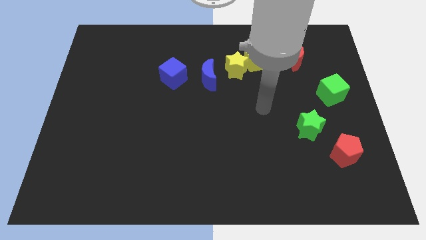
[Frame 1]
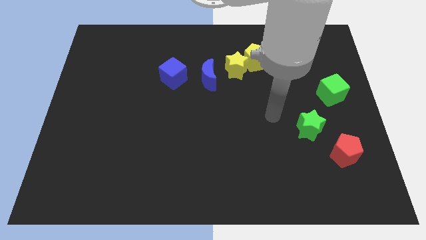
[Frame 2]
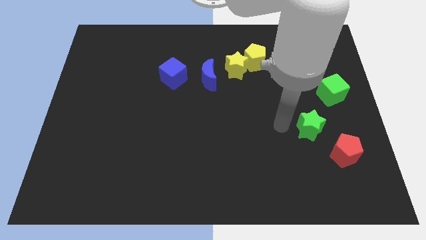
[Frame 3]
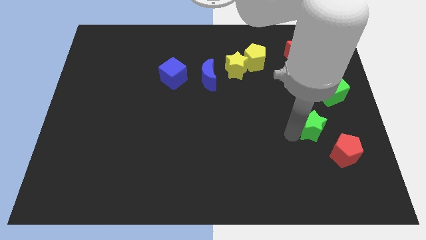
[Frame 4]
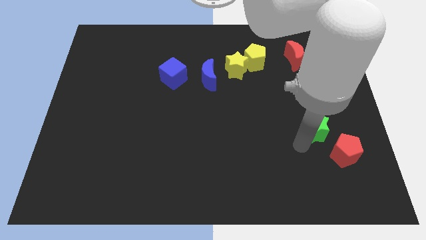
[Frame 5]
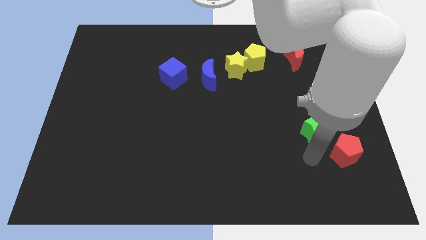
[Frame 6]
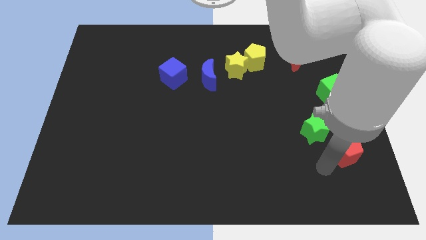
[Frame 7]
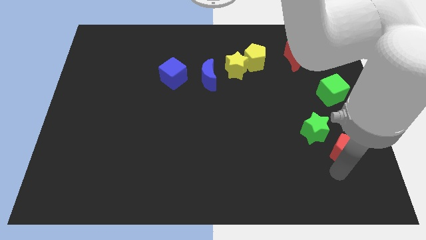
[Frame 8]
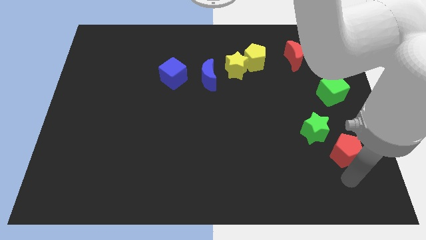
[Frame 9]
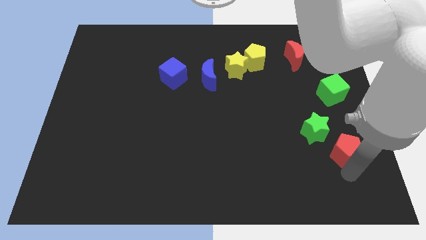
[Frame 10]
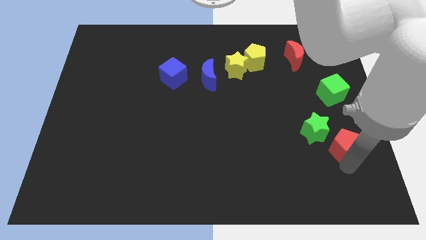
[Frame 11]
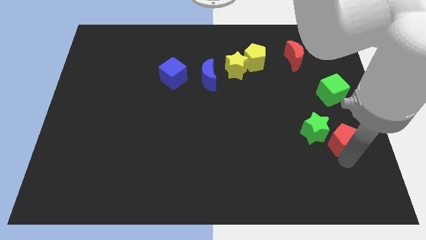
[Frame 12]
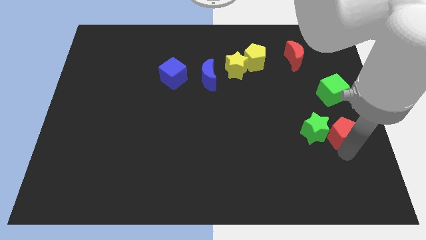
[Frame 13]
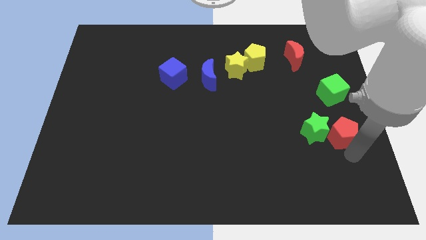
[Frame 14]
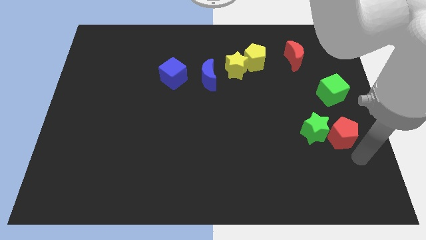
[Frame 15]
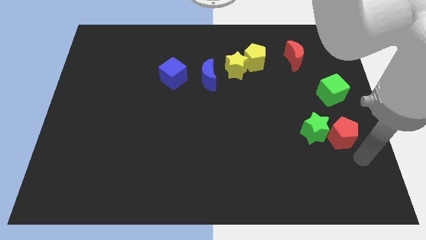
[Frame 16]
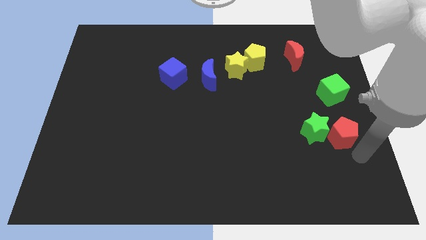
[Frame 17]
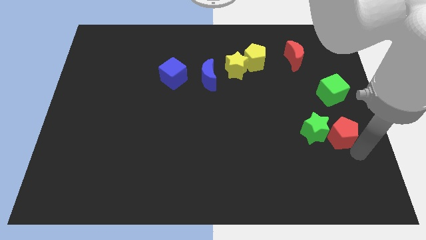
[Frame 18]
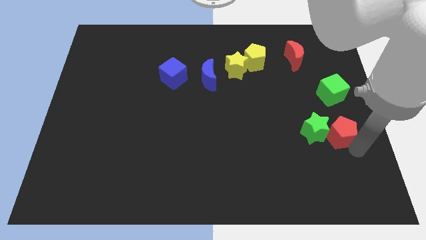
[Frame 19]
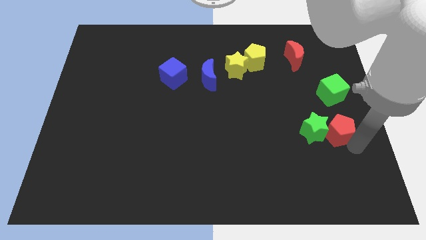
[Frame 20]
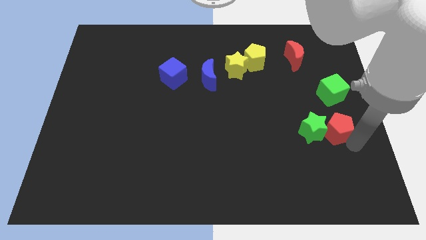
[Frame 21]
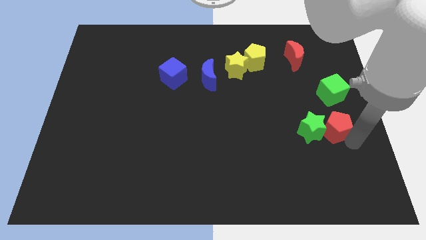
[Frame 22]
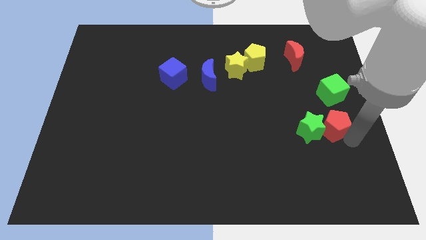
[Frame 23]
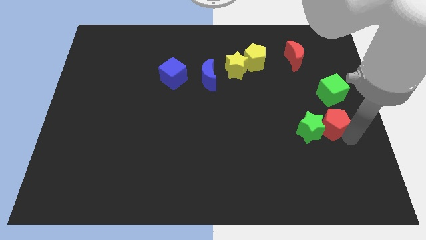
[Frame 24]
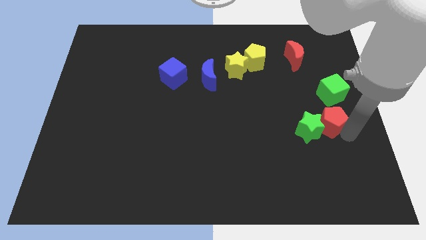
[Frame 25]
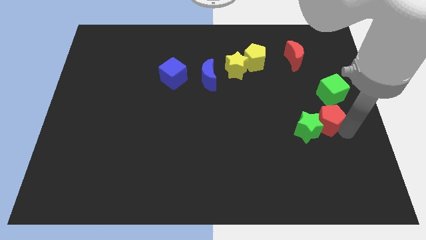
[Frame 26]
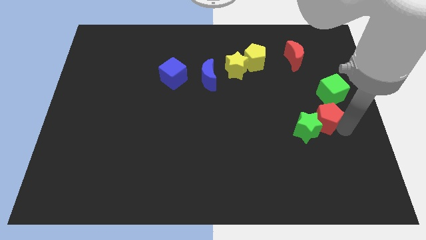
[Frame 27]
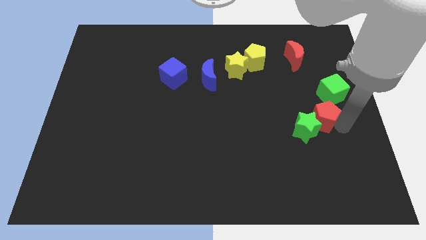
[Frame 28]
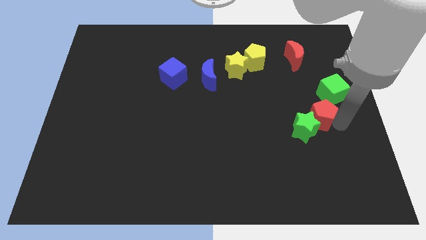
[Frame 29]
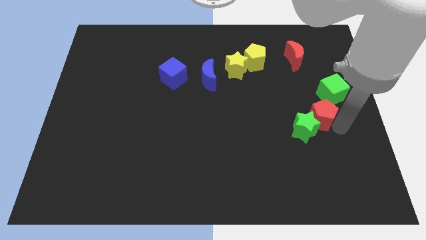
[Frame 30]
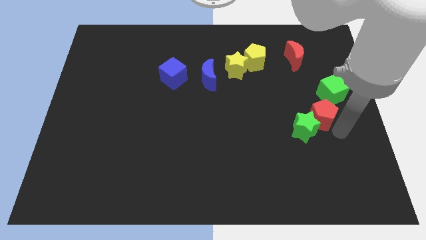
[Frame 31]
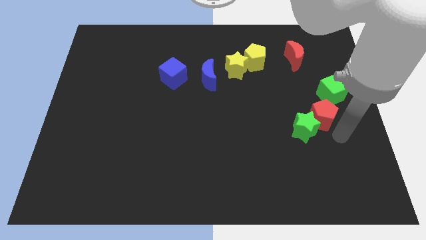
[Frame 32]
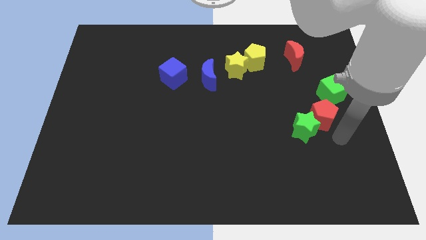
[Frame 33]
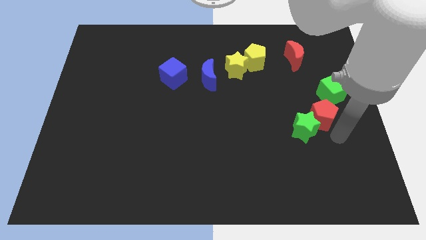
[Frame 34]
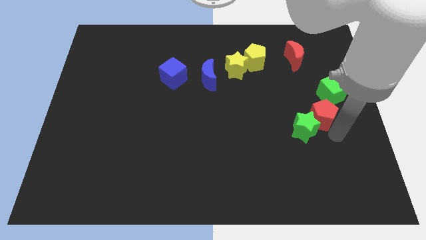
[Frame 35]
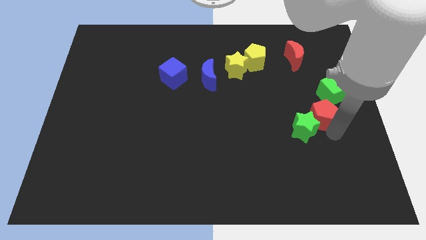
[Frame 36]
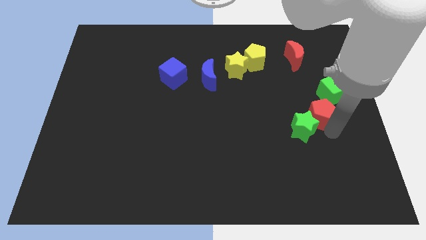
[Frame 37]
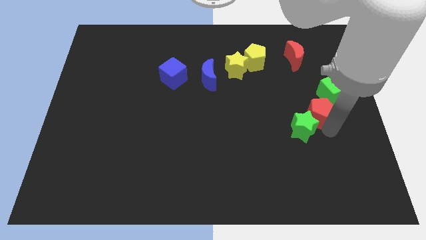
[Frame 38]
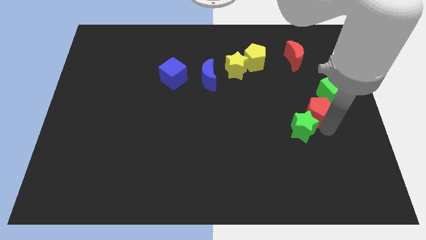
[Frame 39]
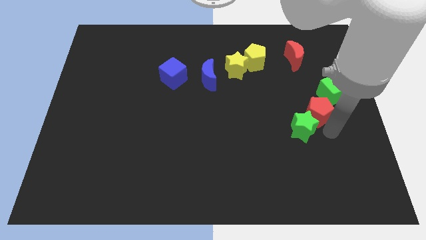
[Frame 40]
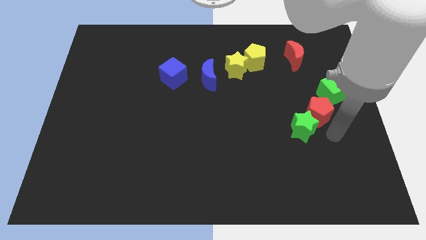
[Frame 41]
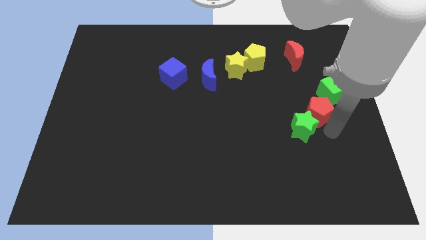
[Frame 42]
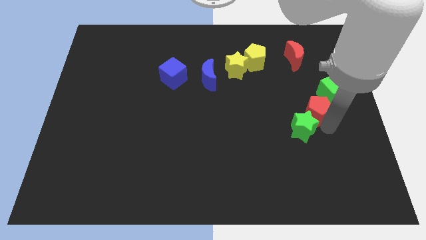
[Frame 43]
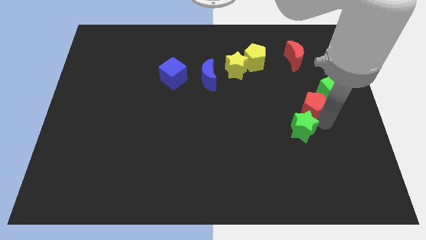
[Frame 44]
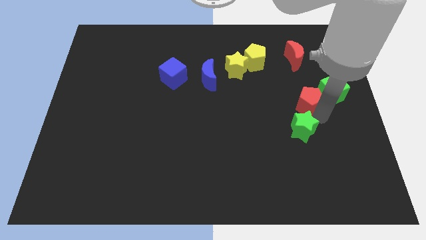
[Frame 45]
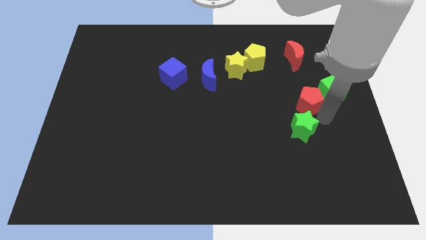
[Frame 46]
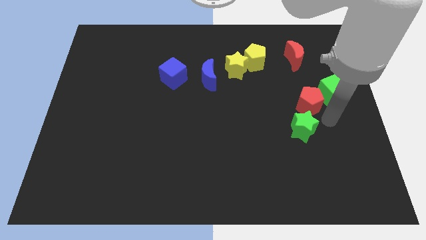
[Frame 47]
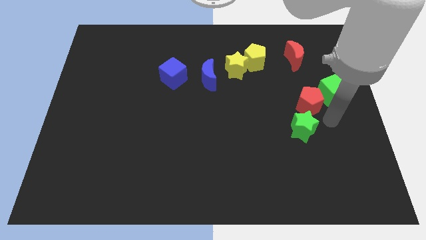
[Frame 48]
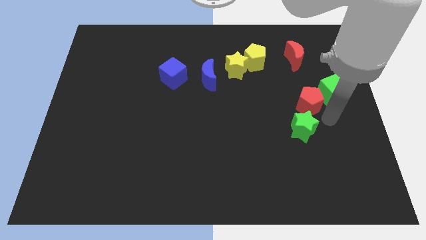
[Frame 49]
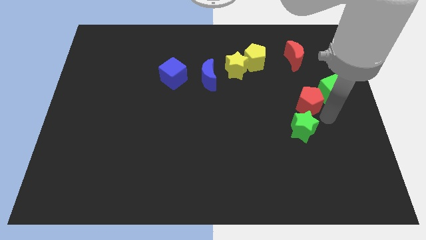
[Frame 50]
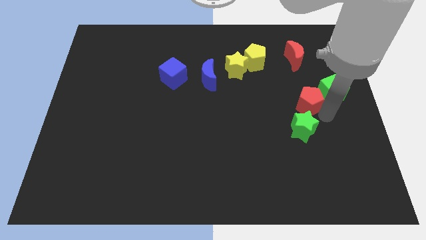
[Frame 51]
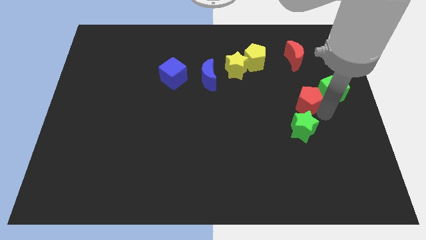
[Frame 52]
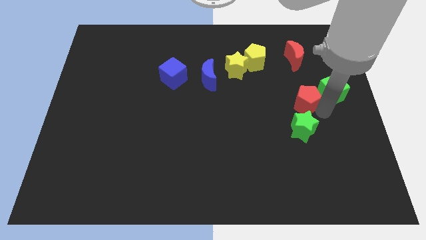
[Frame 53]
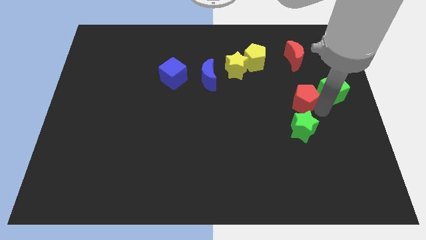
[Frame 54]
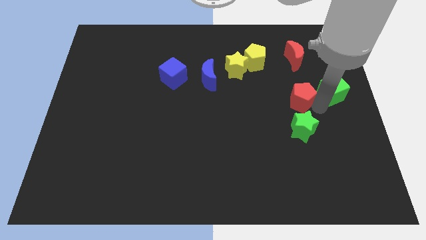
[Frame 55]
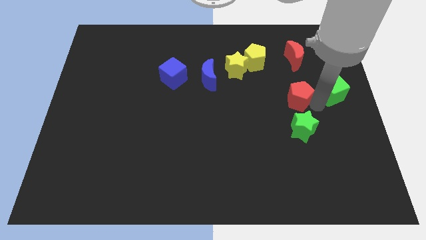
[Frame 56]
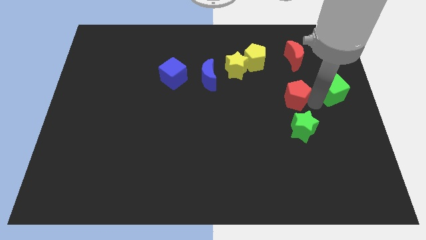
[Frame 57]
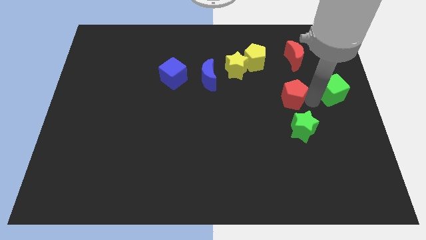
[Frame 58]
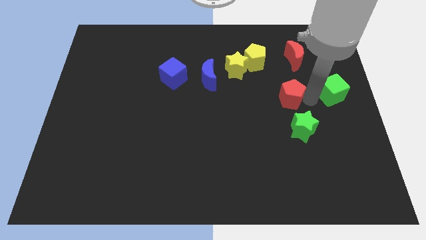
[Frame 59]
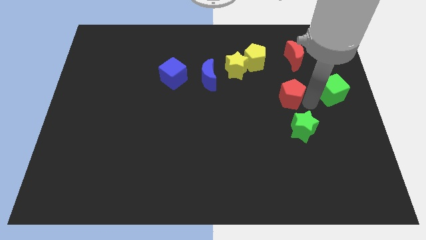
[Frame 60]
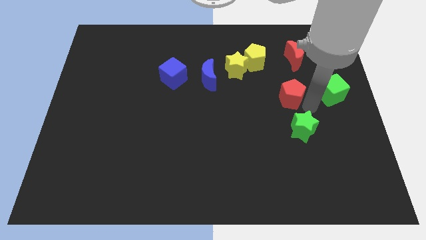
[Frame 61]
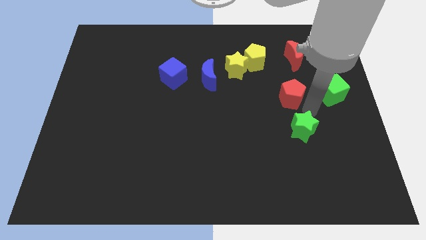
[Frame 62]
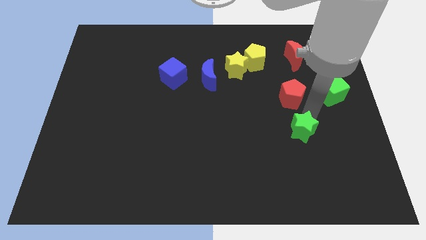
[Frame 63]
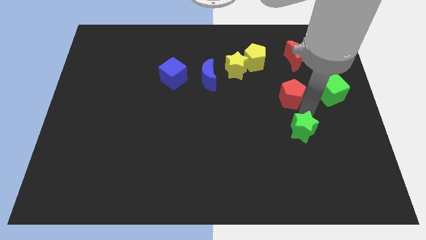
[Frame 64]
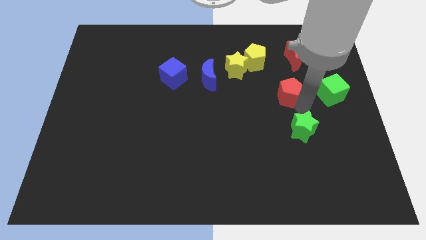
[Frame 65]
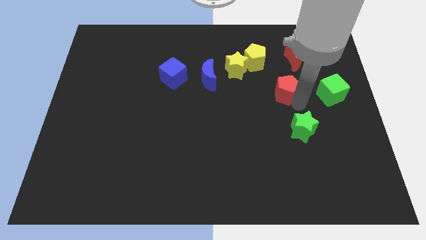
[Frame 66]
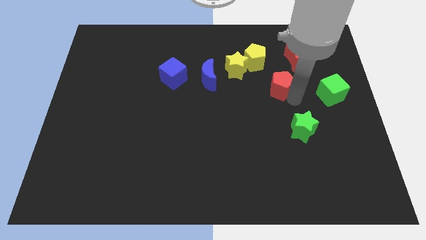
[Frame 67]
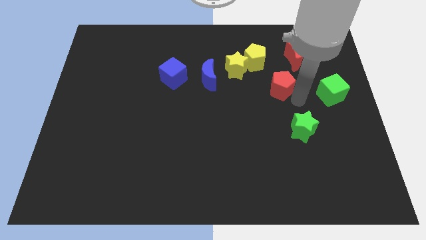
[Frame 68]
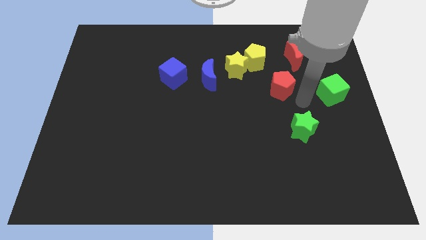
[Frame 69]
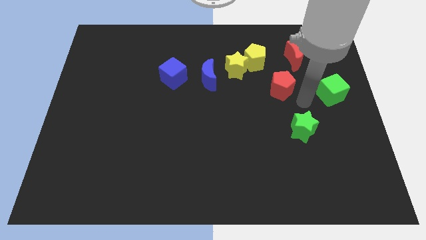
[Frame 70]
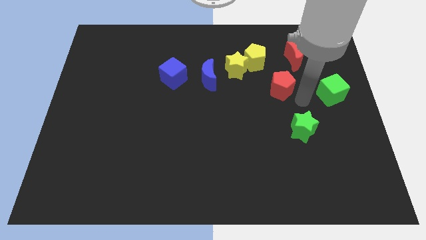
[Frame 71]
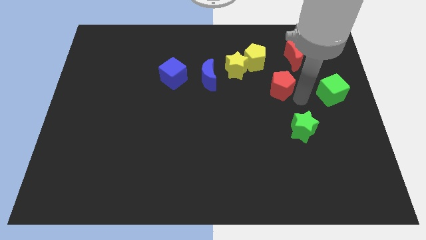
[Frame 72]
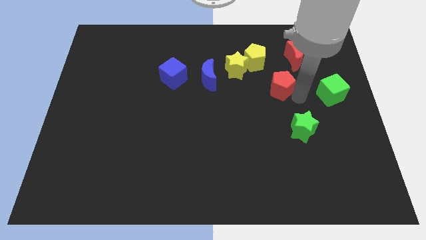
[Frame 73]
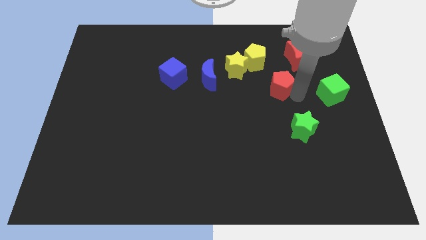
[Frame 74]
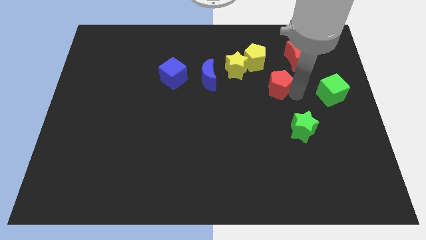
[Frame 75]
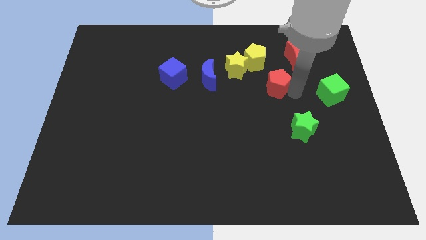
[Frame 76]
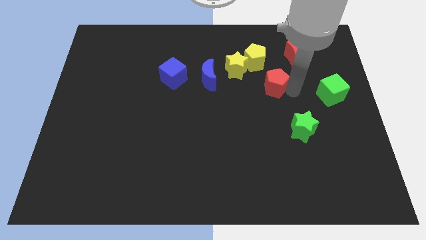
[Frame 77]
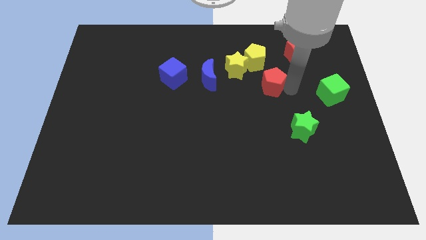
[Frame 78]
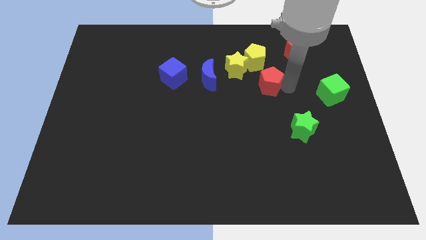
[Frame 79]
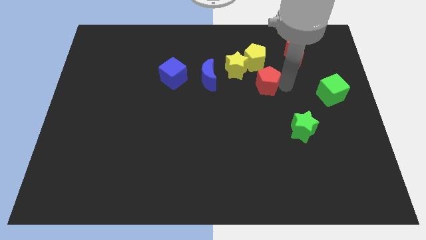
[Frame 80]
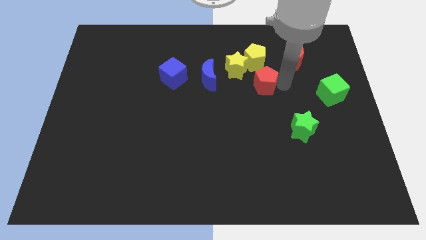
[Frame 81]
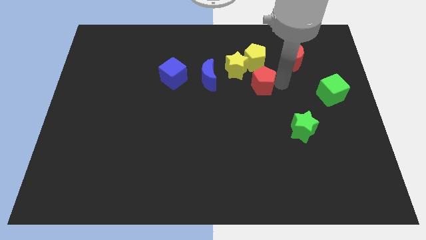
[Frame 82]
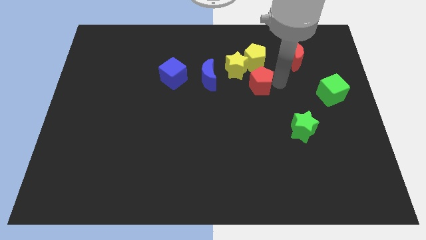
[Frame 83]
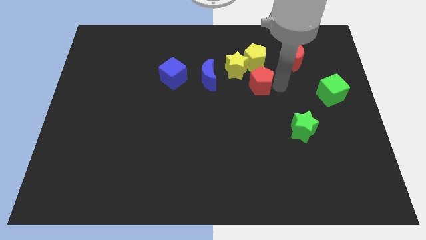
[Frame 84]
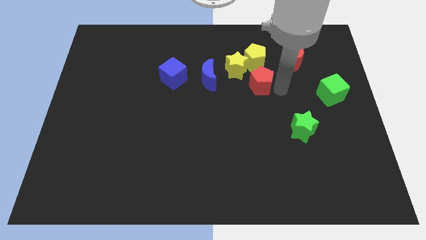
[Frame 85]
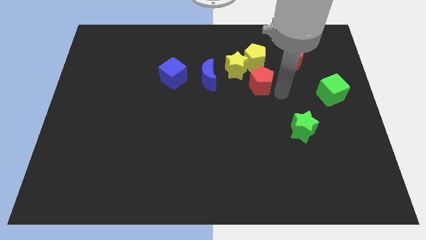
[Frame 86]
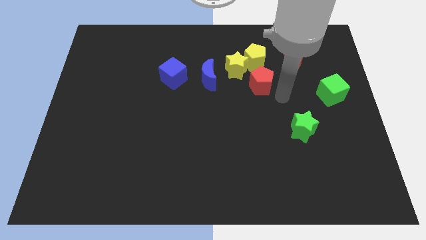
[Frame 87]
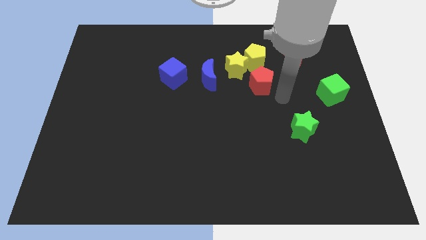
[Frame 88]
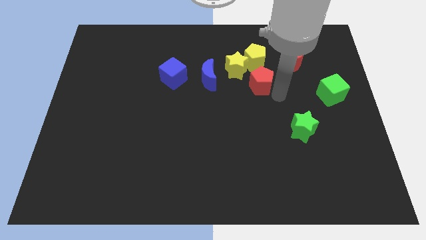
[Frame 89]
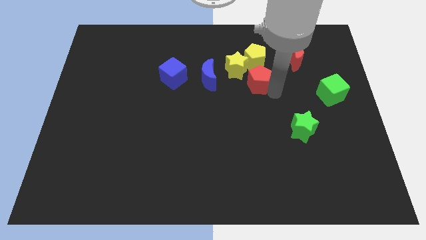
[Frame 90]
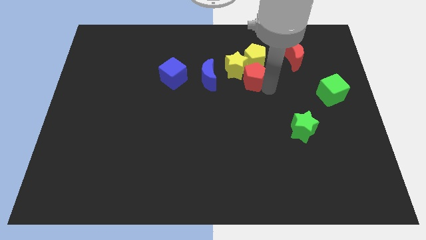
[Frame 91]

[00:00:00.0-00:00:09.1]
put the red pentagon close to the yellow star
